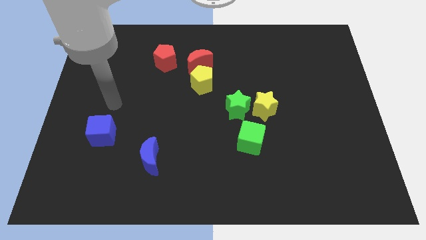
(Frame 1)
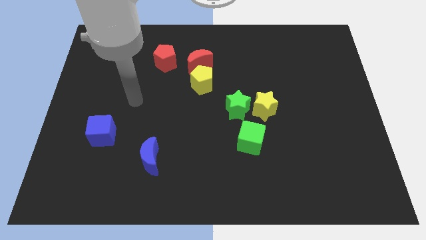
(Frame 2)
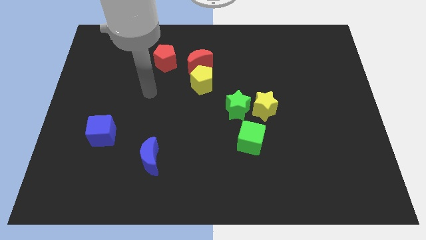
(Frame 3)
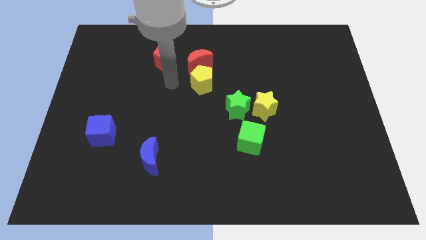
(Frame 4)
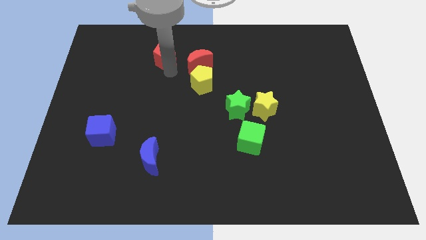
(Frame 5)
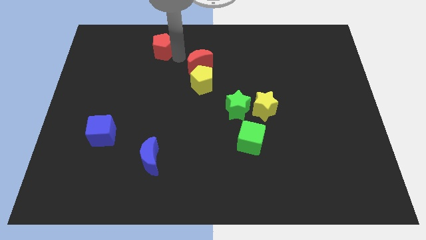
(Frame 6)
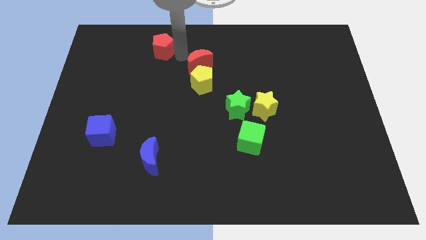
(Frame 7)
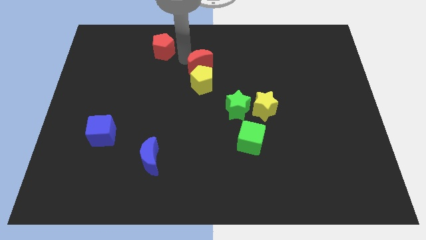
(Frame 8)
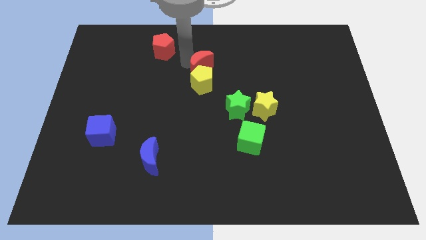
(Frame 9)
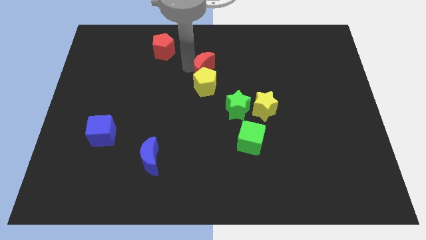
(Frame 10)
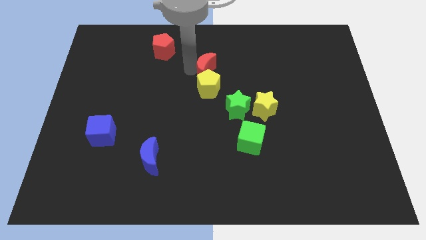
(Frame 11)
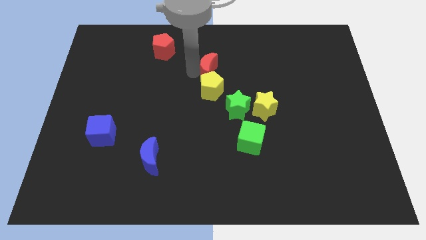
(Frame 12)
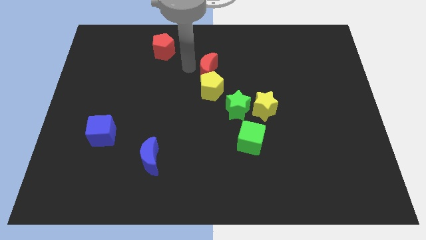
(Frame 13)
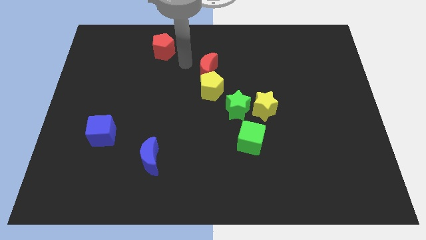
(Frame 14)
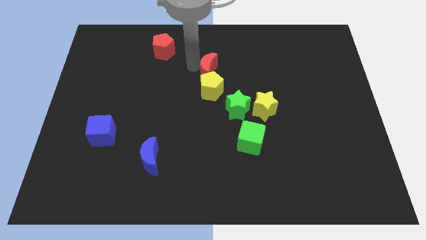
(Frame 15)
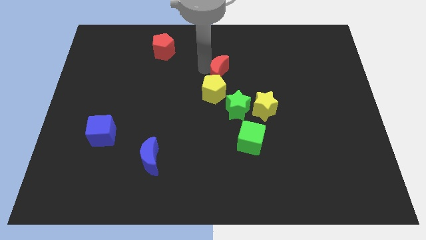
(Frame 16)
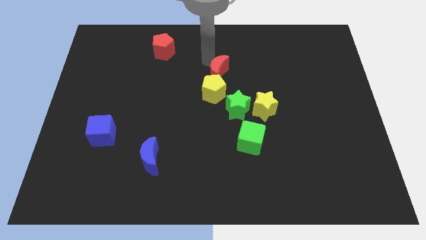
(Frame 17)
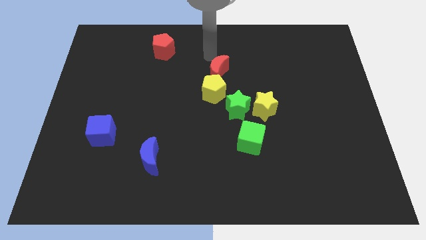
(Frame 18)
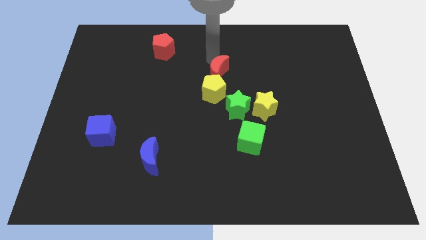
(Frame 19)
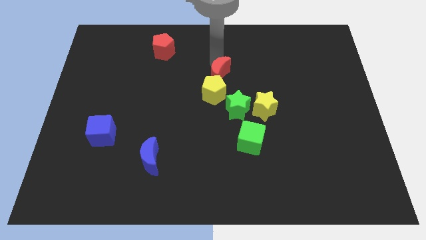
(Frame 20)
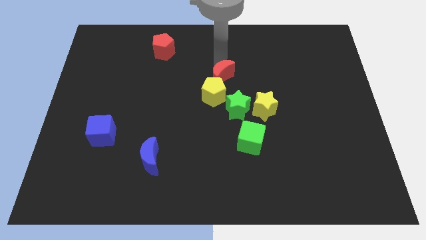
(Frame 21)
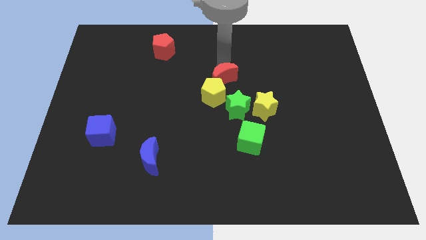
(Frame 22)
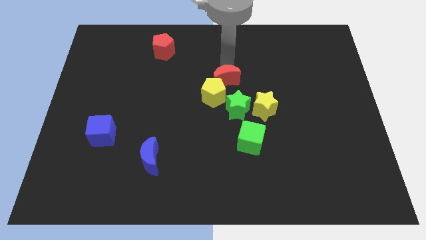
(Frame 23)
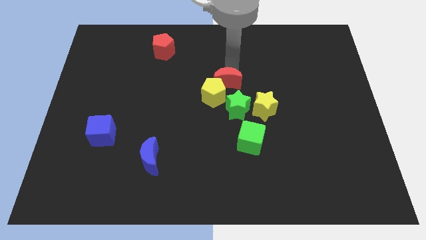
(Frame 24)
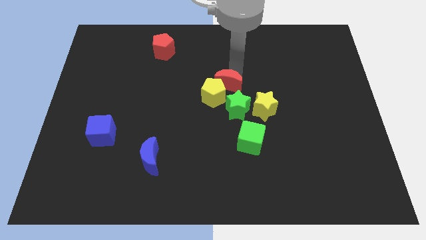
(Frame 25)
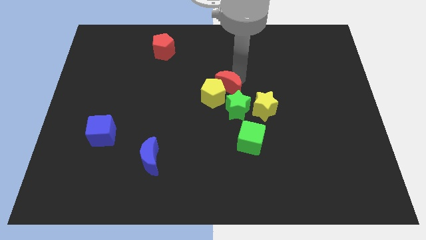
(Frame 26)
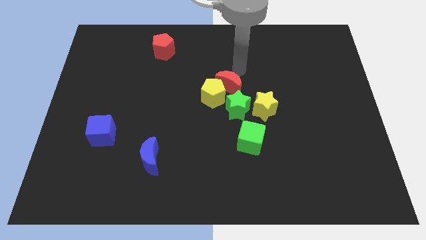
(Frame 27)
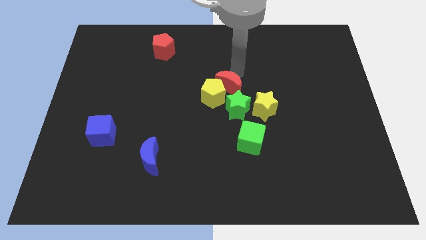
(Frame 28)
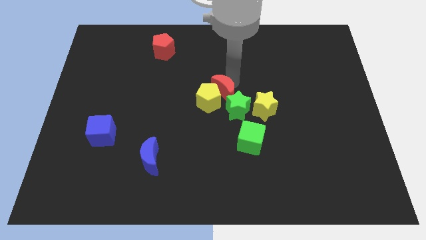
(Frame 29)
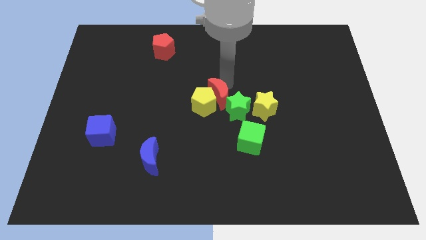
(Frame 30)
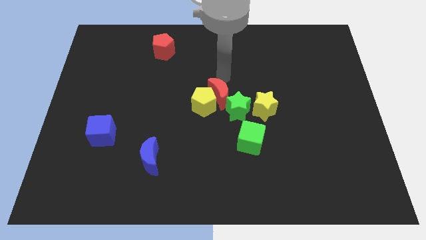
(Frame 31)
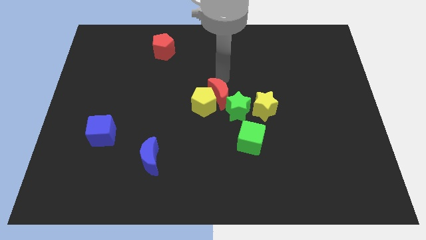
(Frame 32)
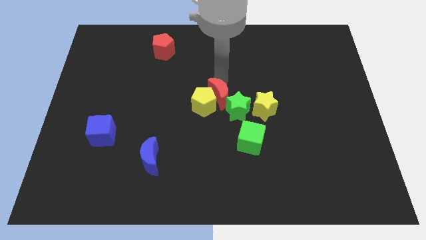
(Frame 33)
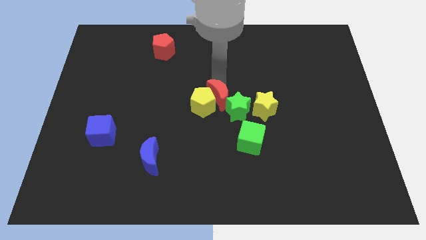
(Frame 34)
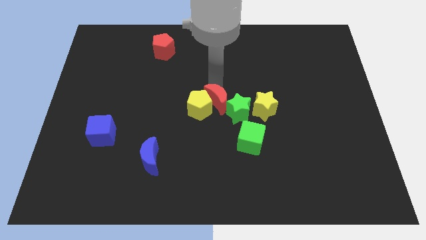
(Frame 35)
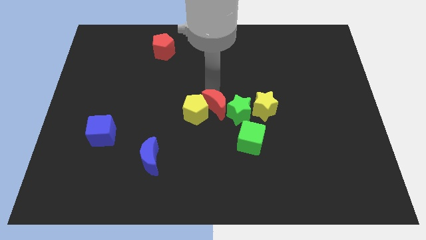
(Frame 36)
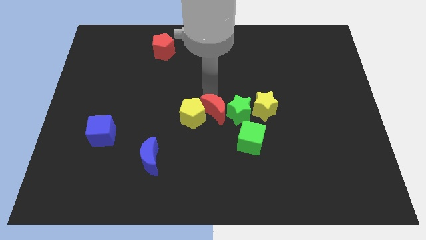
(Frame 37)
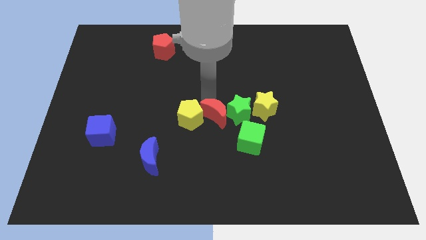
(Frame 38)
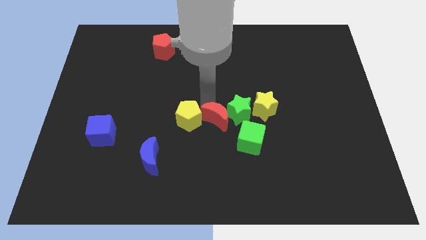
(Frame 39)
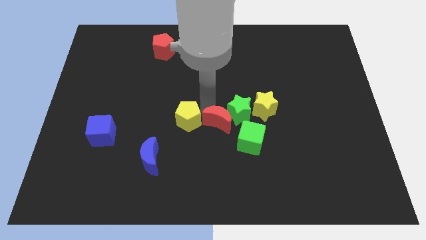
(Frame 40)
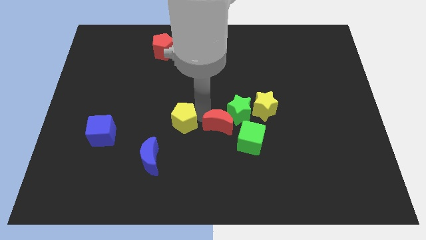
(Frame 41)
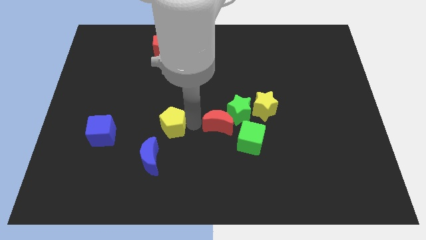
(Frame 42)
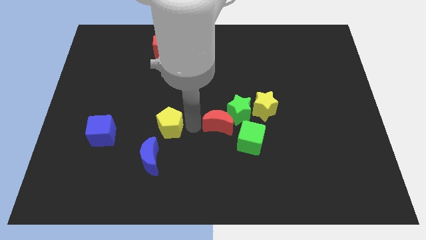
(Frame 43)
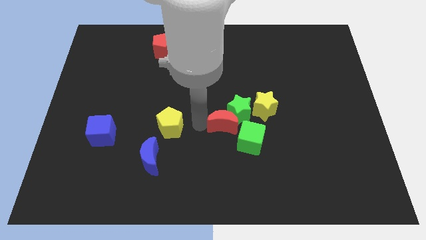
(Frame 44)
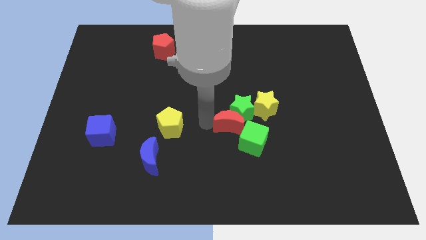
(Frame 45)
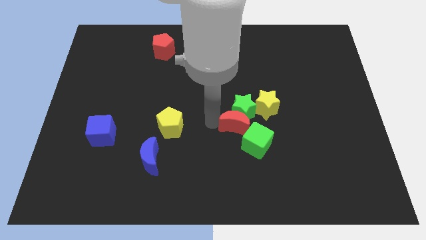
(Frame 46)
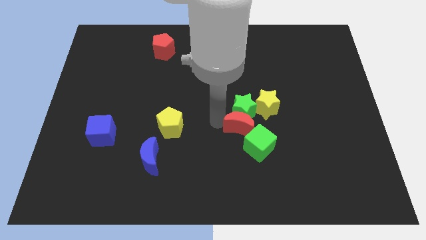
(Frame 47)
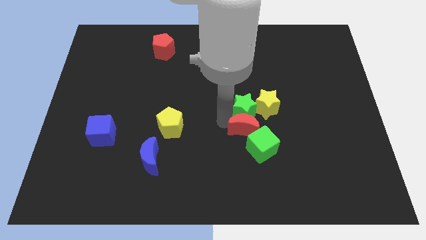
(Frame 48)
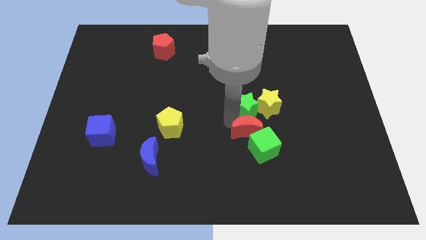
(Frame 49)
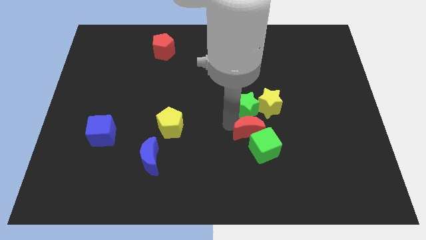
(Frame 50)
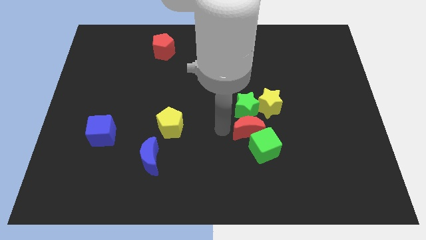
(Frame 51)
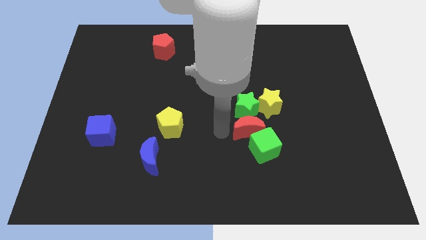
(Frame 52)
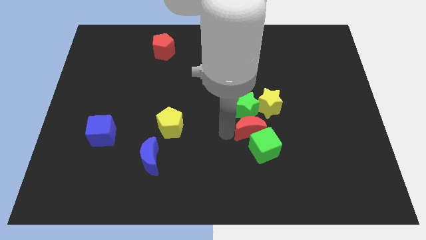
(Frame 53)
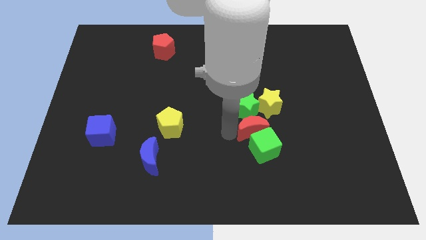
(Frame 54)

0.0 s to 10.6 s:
push the red moon to the bottom of the yellow star

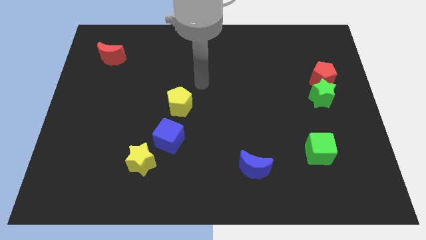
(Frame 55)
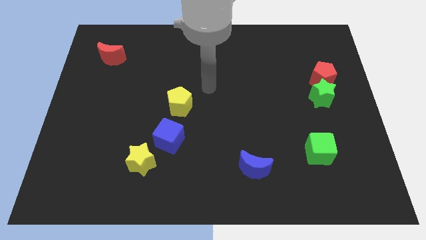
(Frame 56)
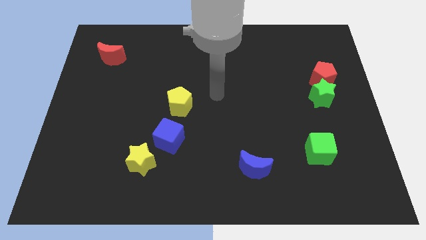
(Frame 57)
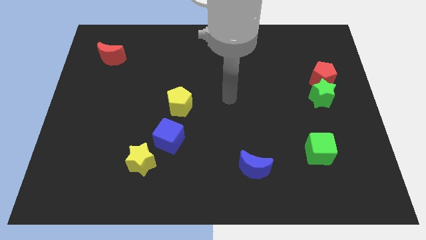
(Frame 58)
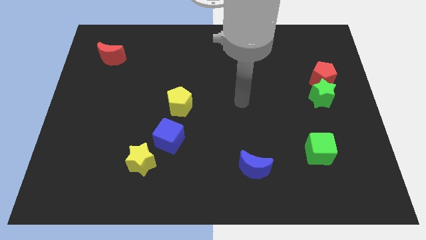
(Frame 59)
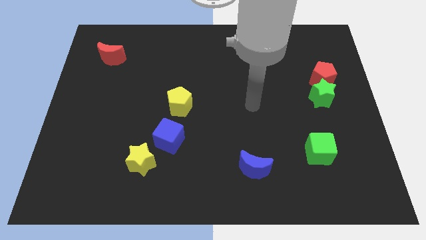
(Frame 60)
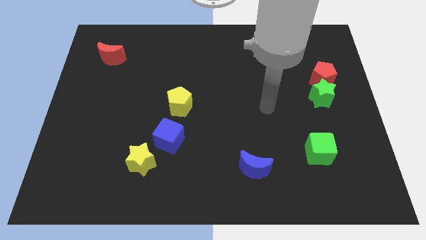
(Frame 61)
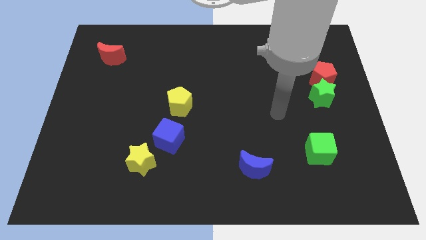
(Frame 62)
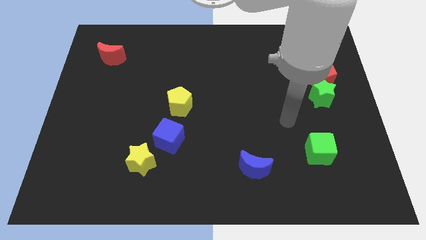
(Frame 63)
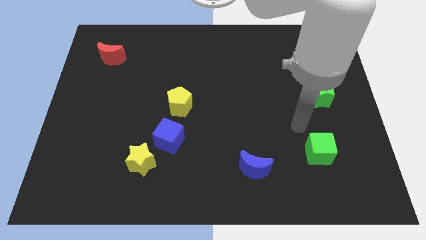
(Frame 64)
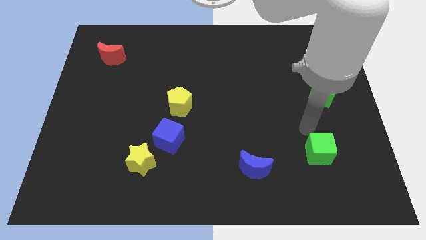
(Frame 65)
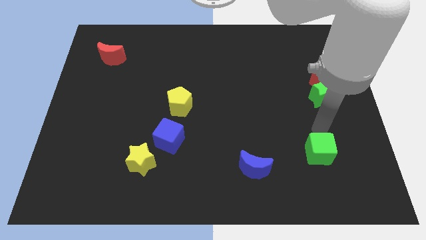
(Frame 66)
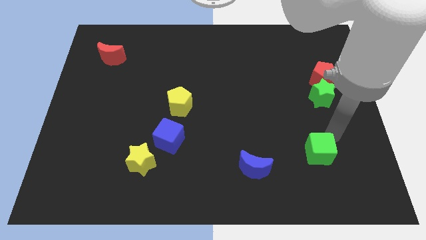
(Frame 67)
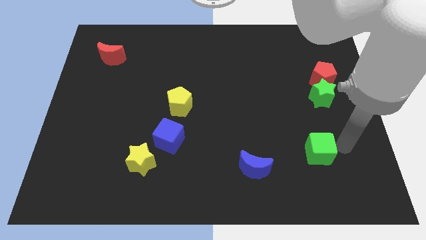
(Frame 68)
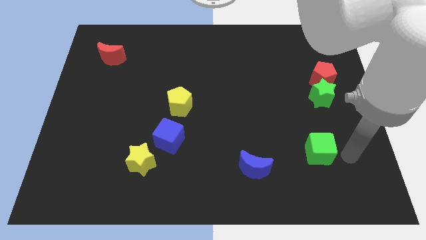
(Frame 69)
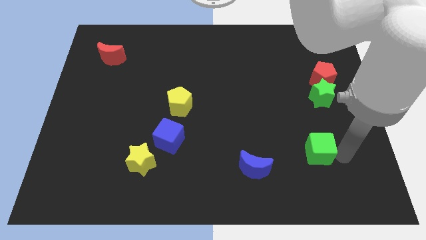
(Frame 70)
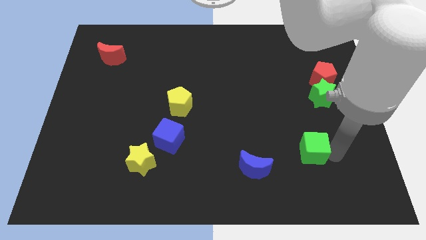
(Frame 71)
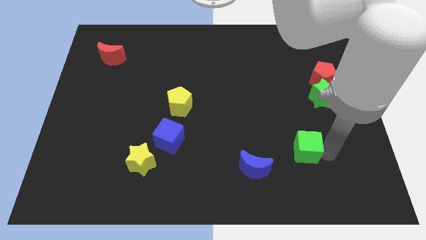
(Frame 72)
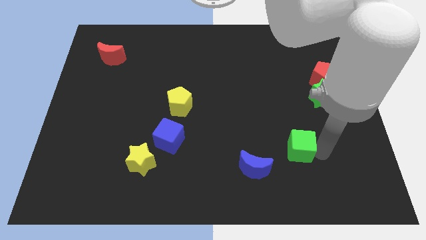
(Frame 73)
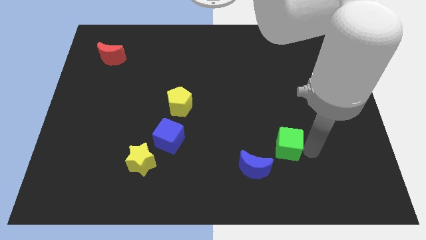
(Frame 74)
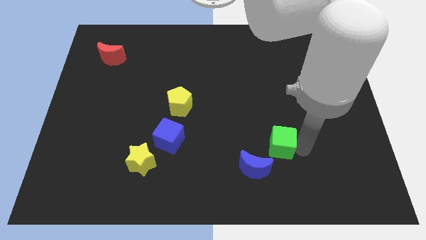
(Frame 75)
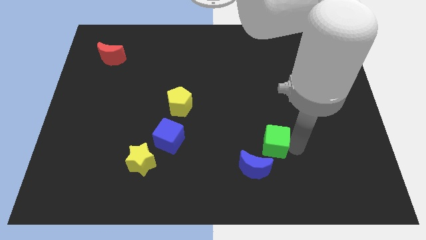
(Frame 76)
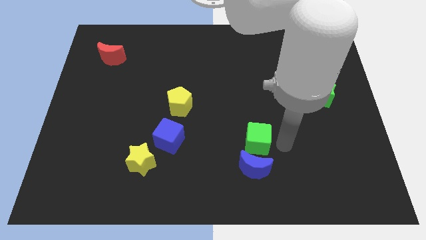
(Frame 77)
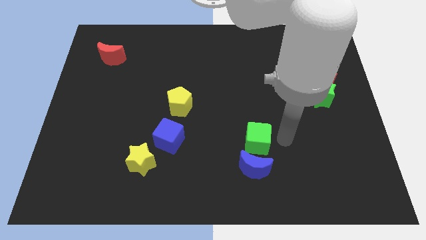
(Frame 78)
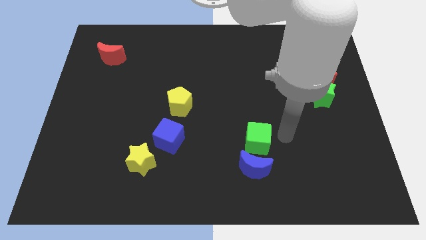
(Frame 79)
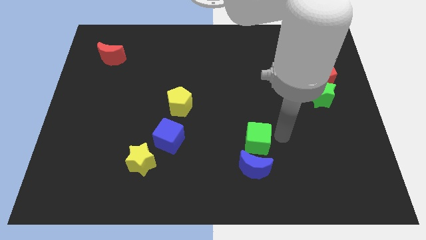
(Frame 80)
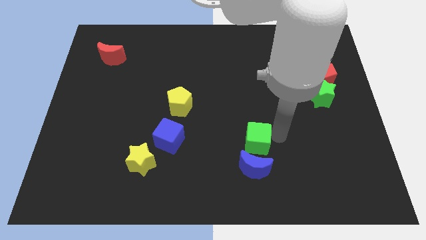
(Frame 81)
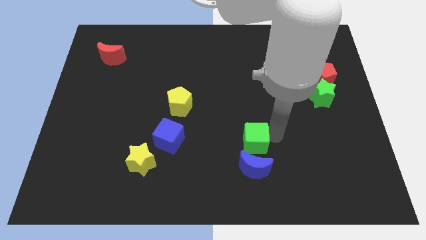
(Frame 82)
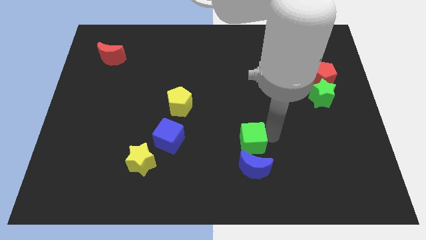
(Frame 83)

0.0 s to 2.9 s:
move the green cube diagonally up and to the left of the blue moon
